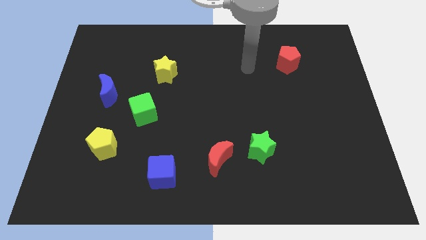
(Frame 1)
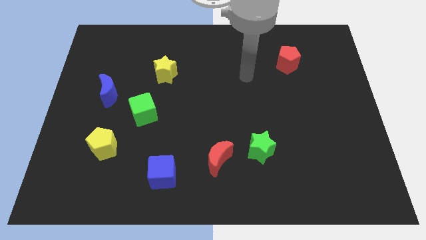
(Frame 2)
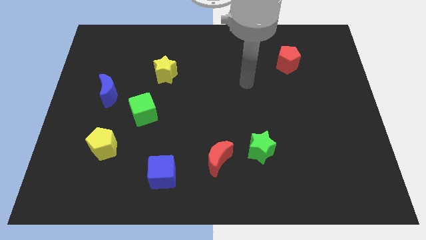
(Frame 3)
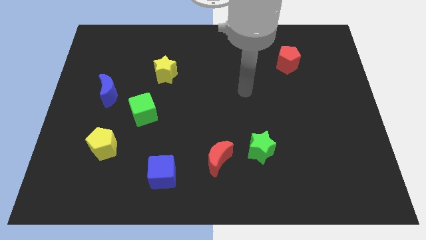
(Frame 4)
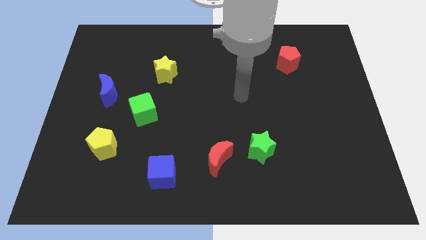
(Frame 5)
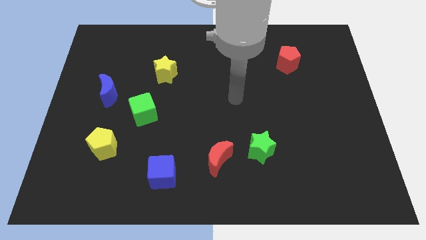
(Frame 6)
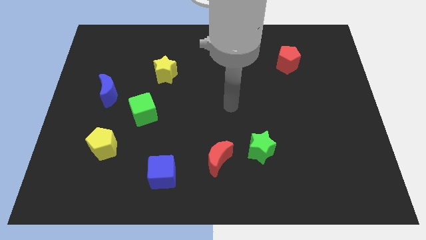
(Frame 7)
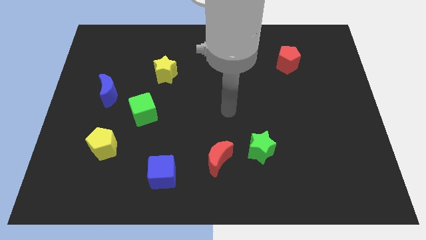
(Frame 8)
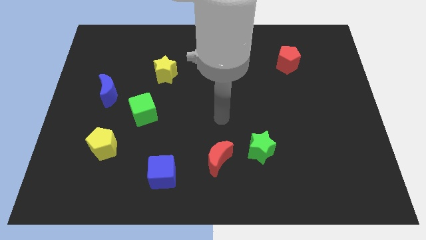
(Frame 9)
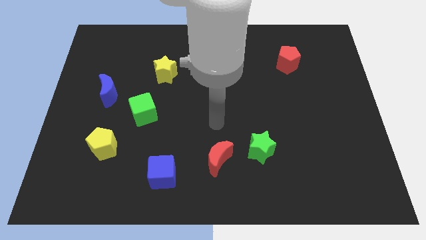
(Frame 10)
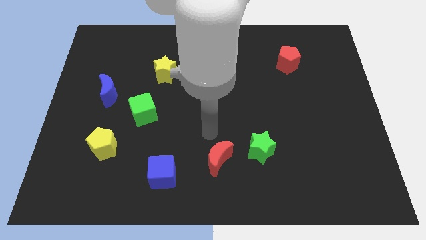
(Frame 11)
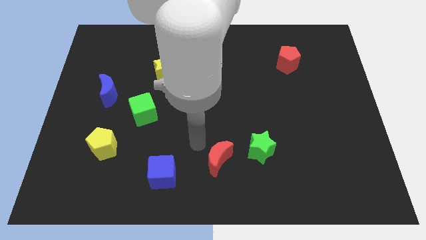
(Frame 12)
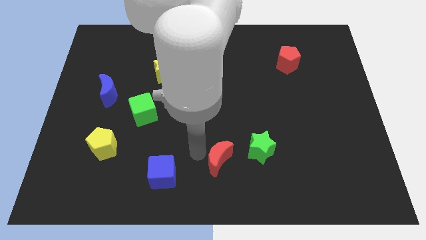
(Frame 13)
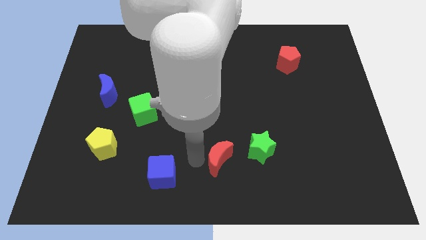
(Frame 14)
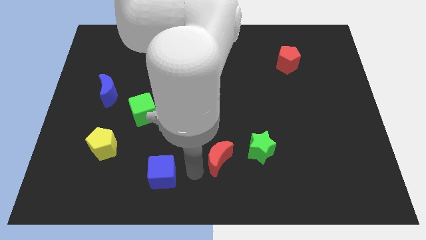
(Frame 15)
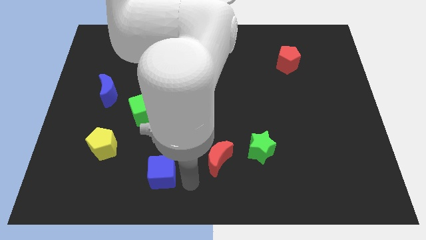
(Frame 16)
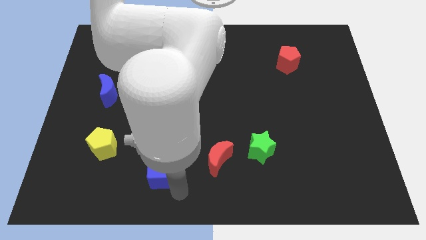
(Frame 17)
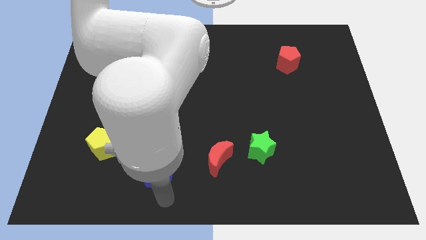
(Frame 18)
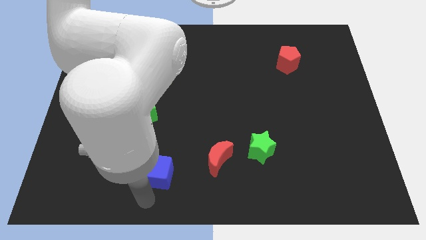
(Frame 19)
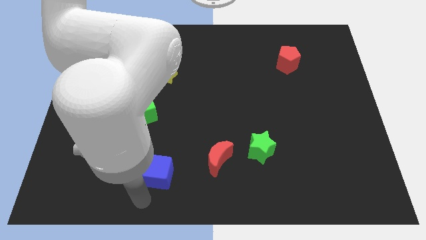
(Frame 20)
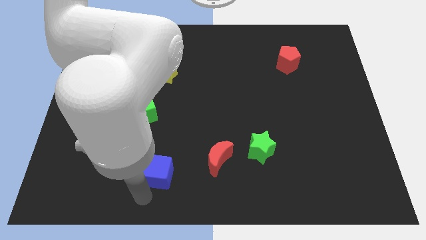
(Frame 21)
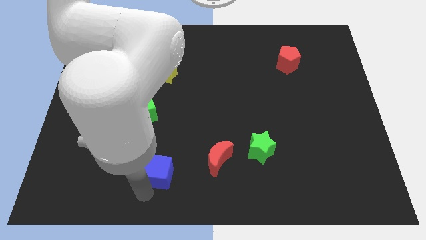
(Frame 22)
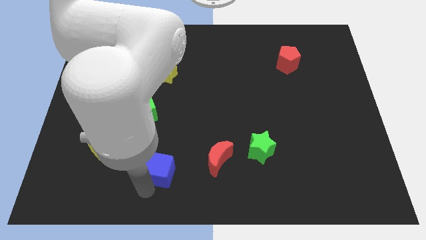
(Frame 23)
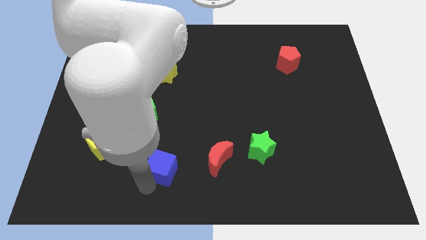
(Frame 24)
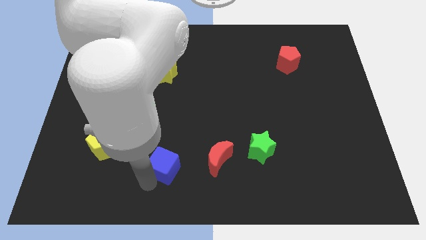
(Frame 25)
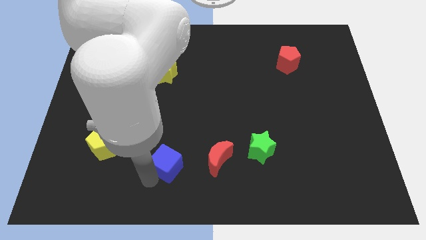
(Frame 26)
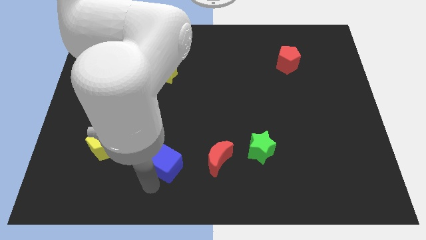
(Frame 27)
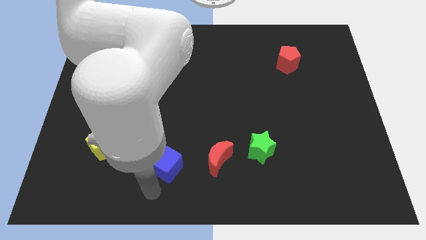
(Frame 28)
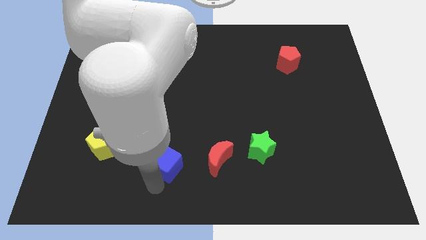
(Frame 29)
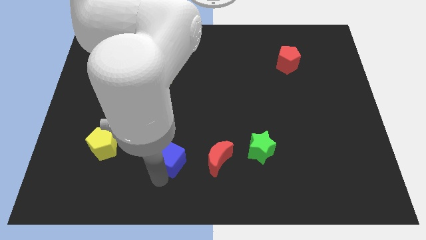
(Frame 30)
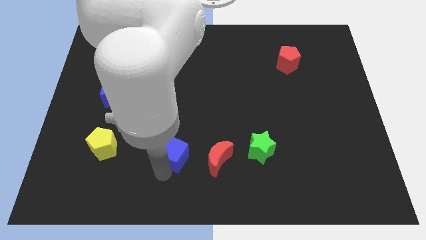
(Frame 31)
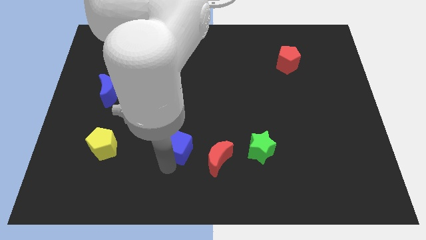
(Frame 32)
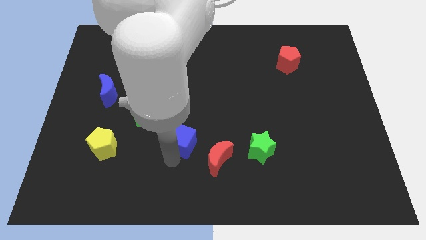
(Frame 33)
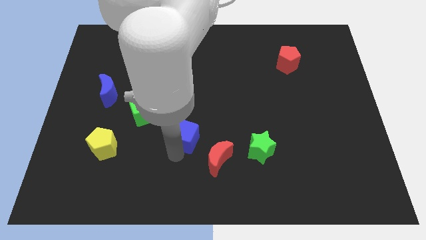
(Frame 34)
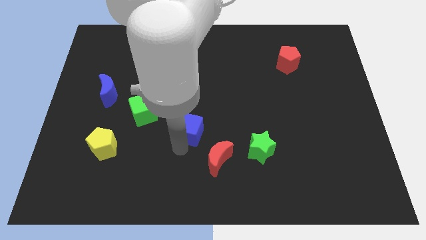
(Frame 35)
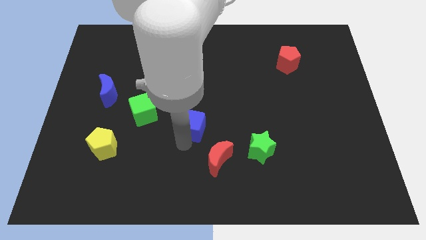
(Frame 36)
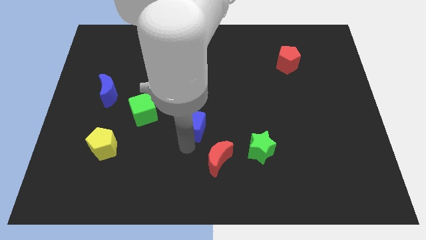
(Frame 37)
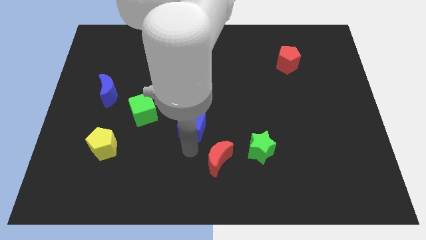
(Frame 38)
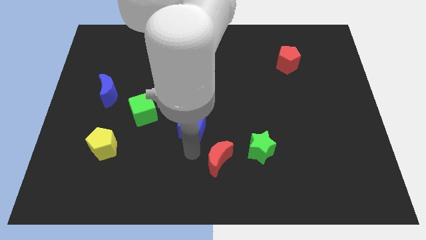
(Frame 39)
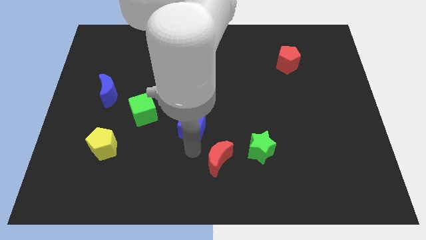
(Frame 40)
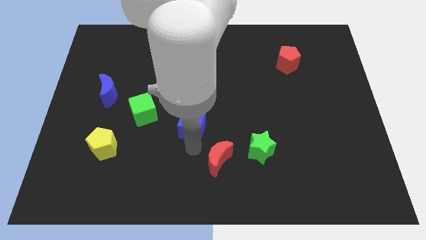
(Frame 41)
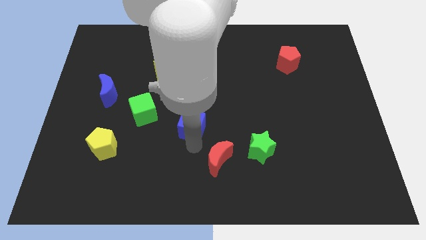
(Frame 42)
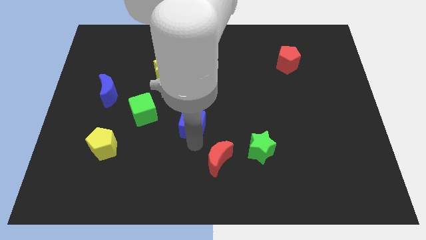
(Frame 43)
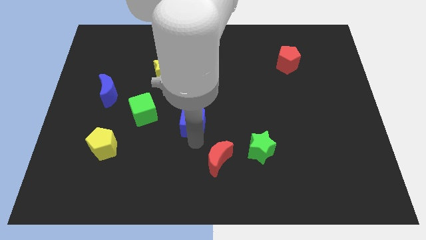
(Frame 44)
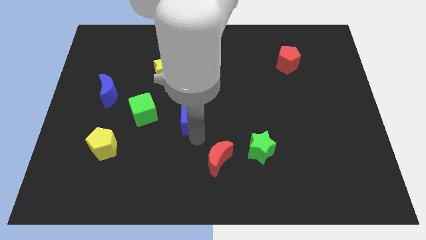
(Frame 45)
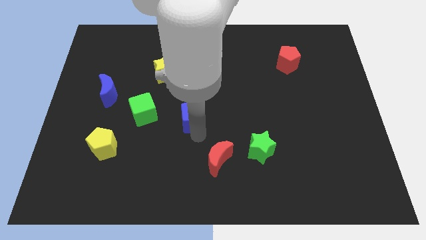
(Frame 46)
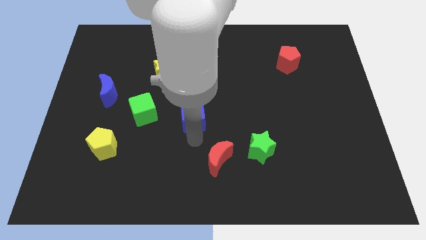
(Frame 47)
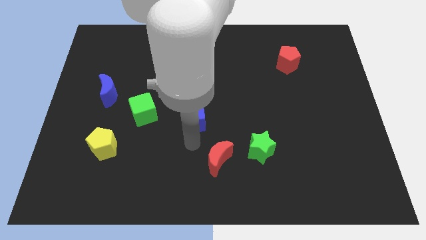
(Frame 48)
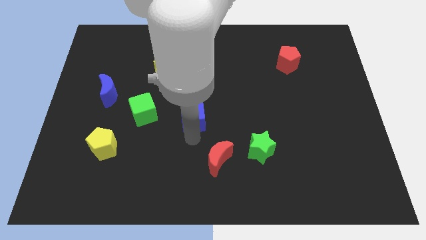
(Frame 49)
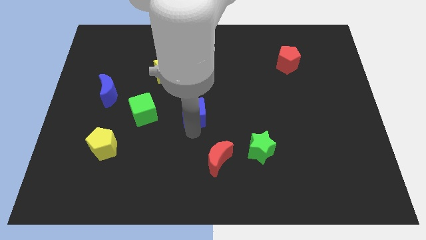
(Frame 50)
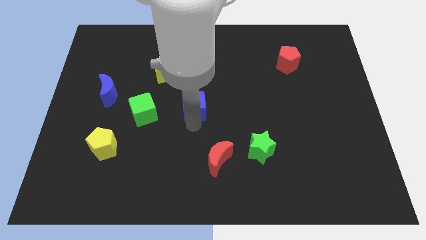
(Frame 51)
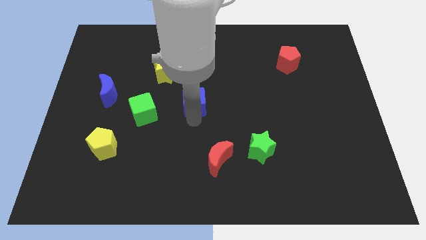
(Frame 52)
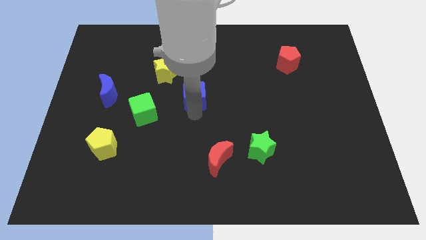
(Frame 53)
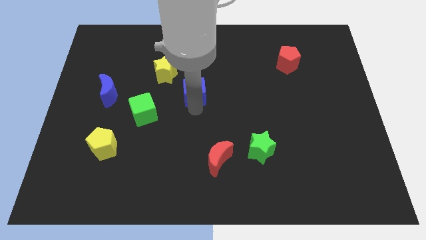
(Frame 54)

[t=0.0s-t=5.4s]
slide the blue cube upwards

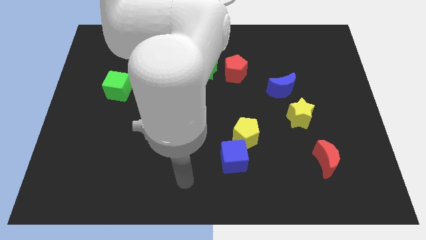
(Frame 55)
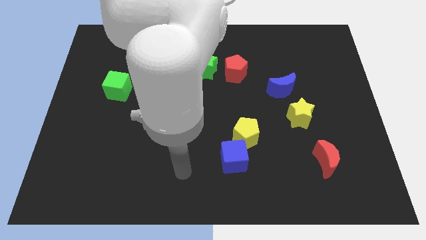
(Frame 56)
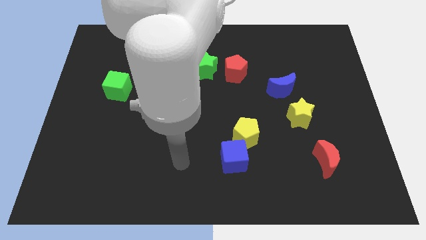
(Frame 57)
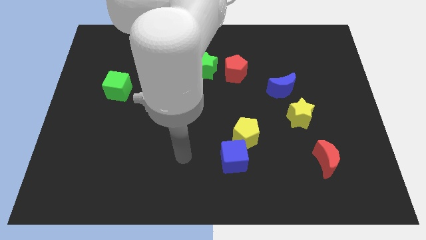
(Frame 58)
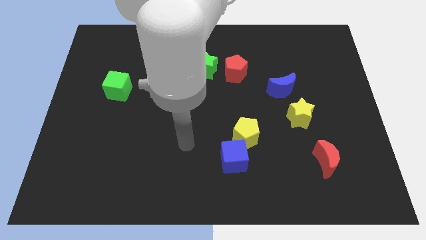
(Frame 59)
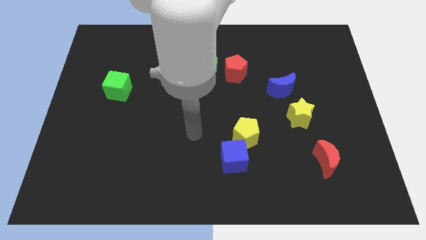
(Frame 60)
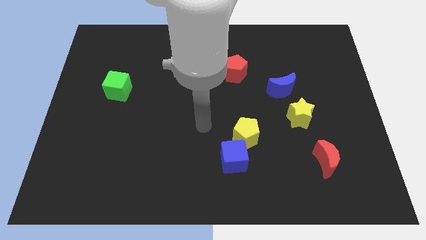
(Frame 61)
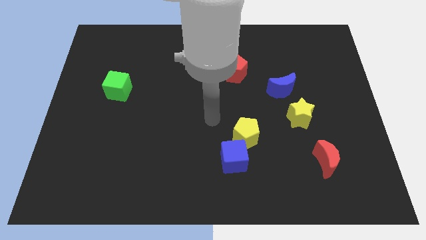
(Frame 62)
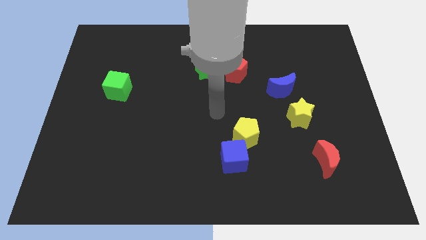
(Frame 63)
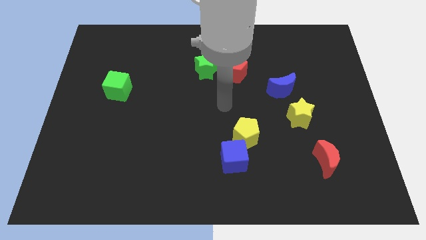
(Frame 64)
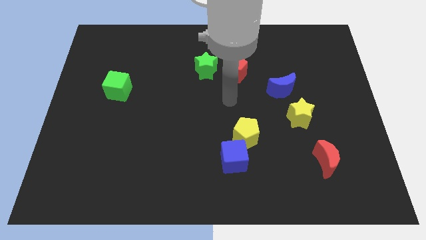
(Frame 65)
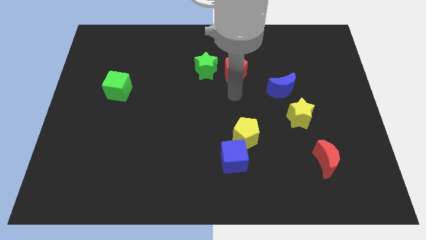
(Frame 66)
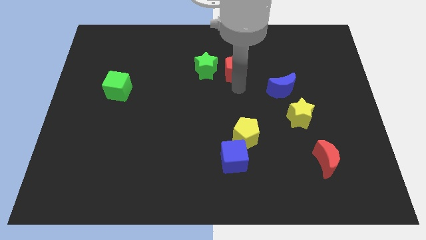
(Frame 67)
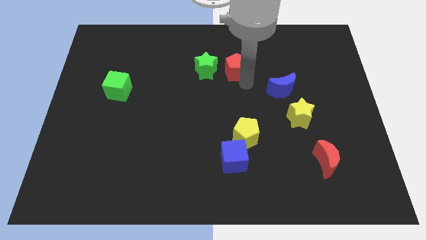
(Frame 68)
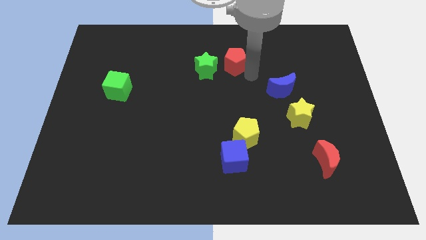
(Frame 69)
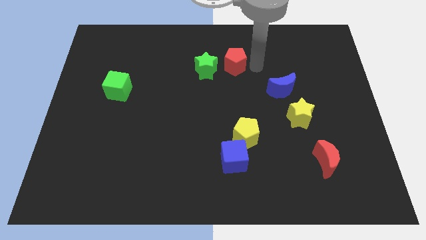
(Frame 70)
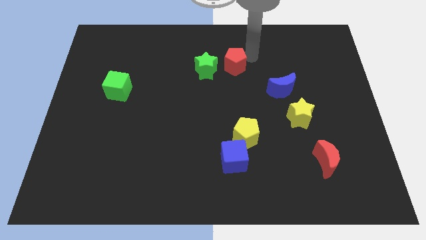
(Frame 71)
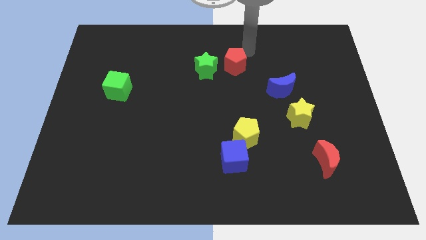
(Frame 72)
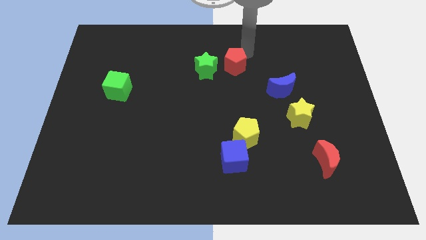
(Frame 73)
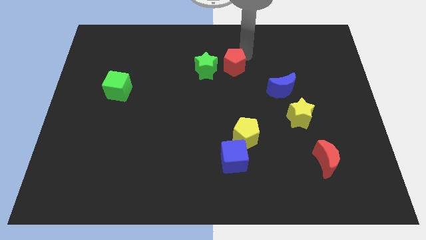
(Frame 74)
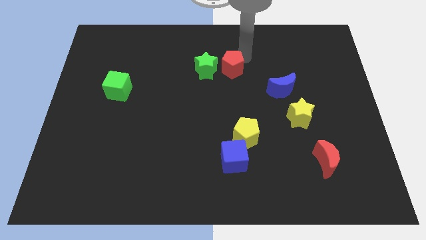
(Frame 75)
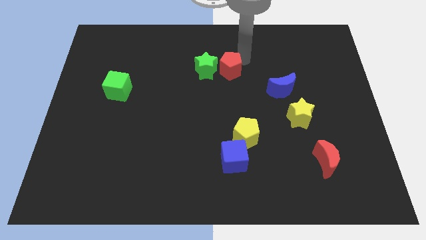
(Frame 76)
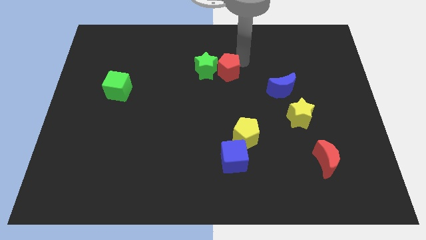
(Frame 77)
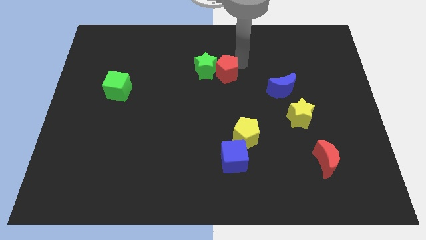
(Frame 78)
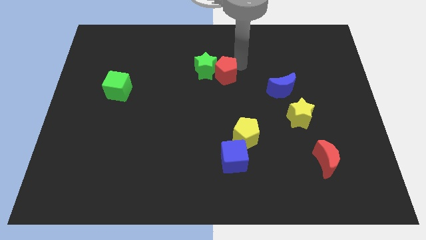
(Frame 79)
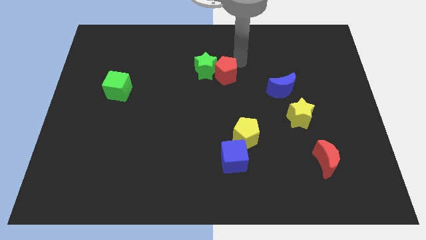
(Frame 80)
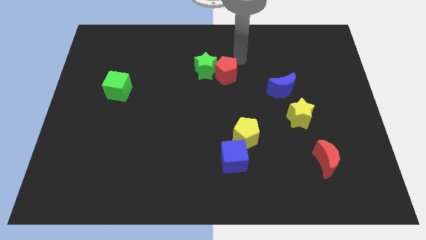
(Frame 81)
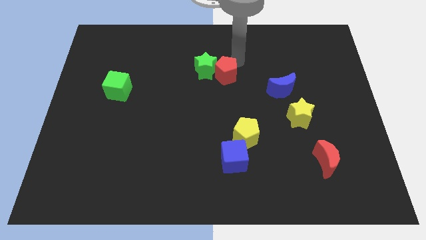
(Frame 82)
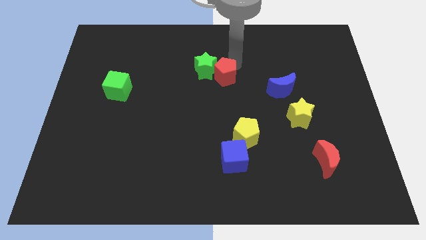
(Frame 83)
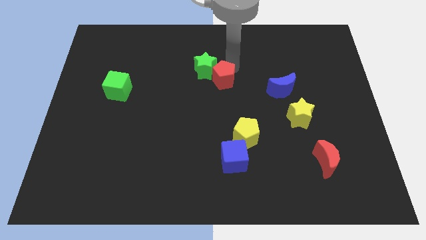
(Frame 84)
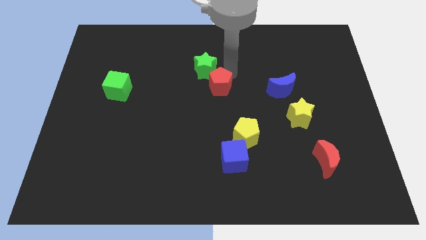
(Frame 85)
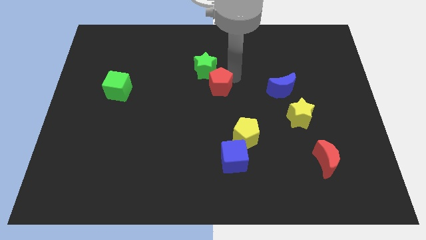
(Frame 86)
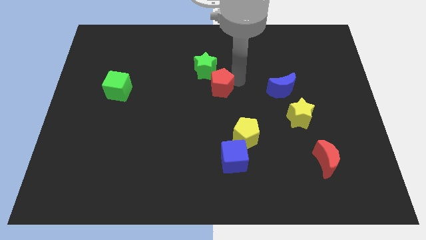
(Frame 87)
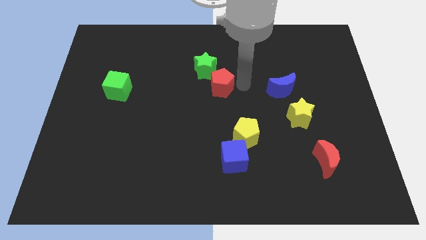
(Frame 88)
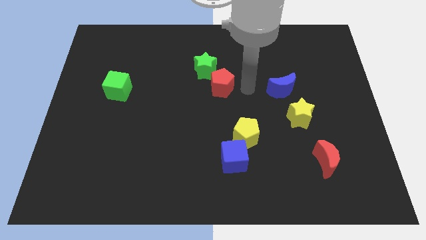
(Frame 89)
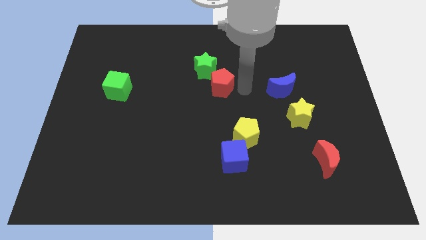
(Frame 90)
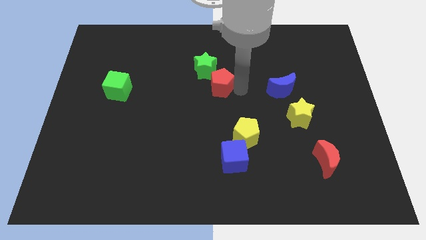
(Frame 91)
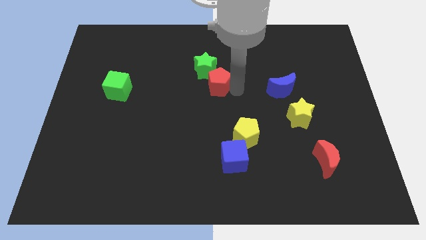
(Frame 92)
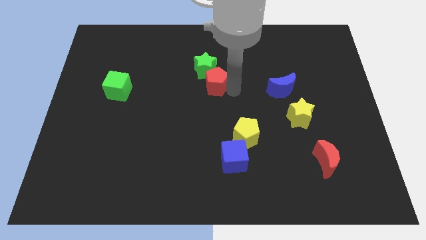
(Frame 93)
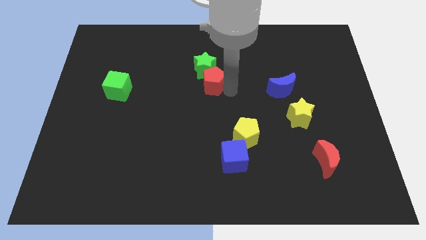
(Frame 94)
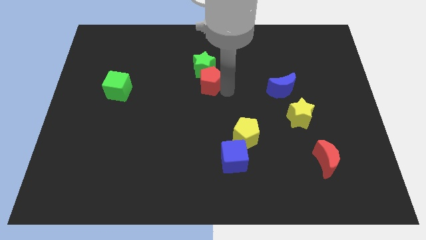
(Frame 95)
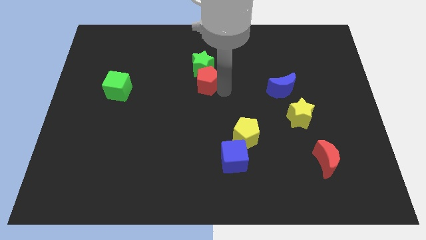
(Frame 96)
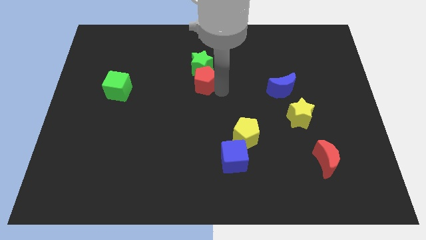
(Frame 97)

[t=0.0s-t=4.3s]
slide the red pentagon to the left a little
